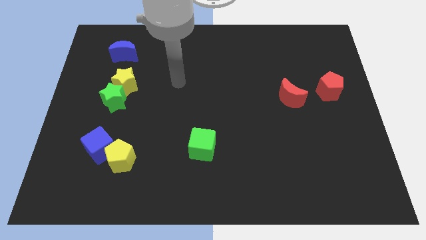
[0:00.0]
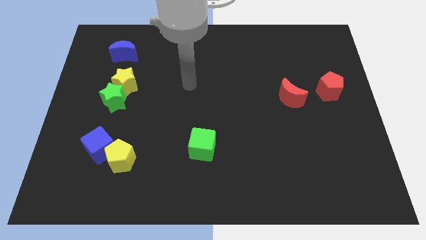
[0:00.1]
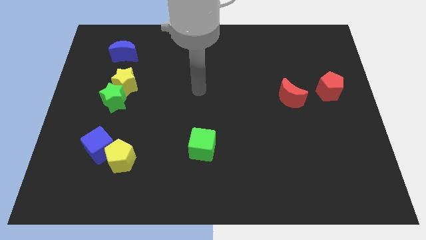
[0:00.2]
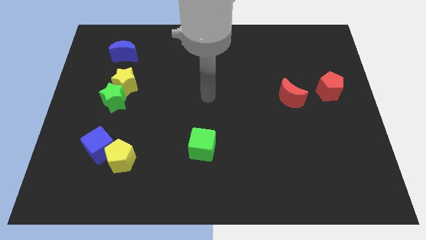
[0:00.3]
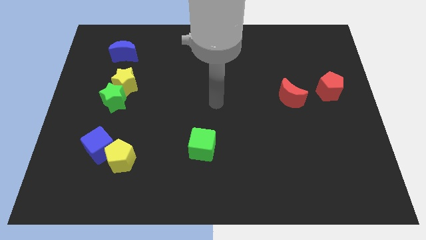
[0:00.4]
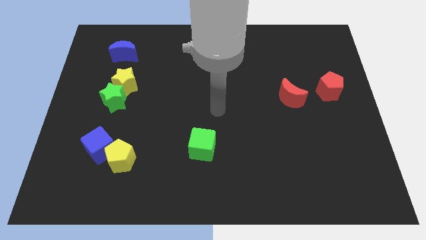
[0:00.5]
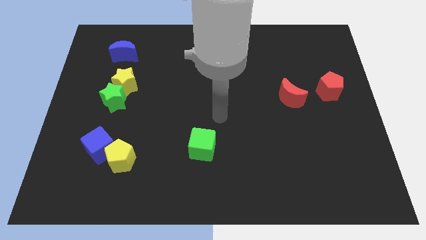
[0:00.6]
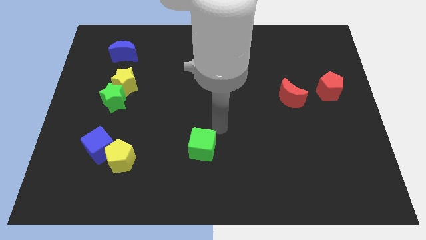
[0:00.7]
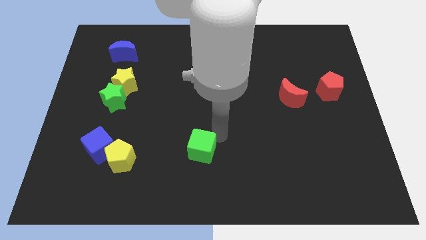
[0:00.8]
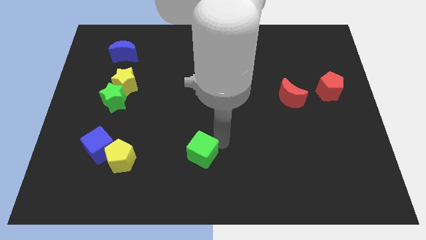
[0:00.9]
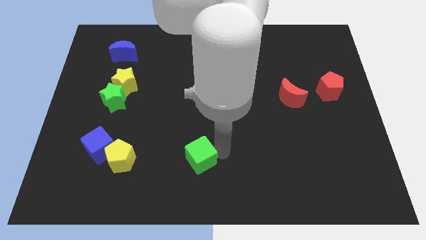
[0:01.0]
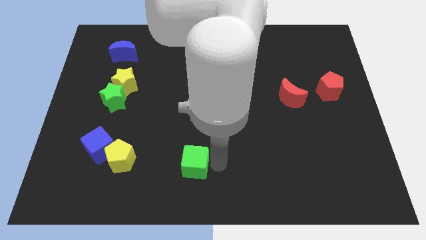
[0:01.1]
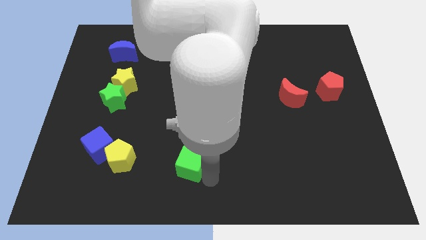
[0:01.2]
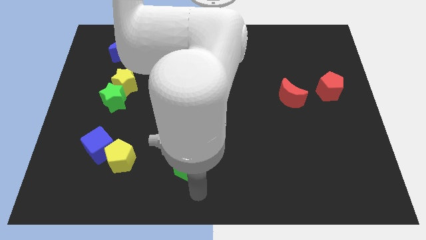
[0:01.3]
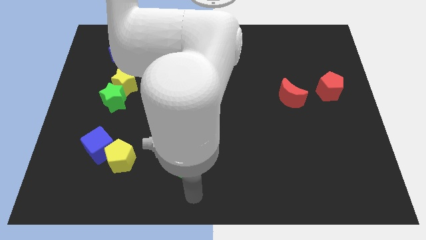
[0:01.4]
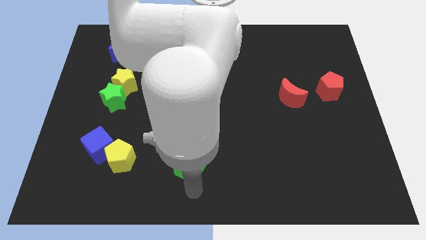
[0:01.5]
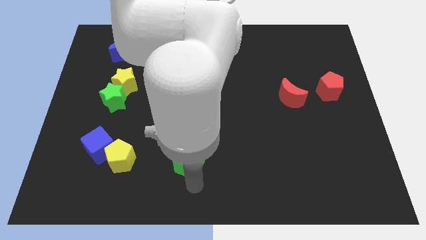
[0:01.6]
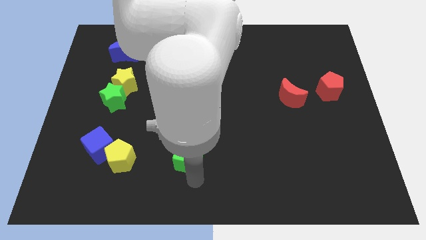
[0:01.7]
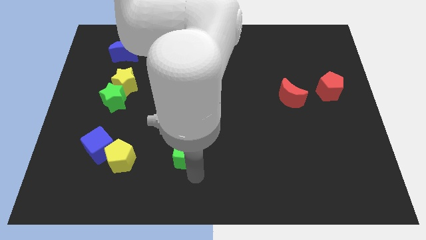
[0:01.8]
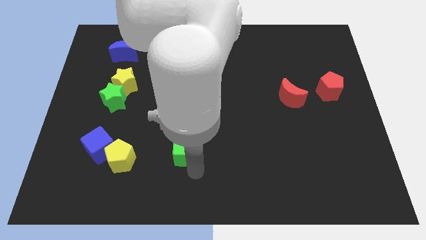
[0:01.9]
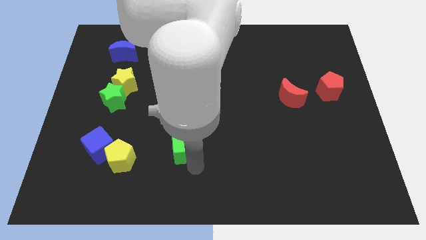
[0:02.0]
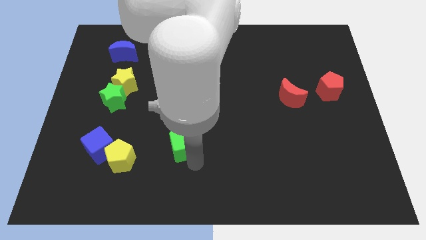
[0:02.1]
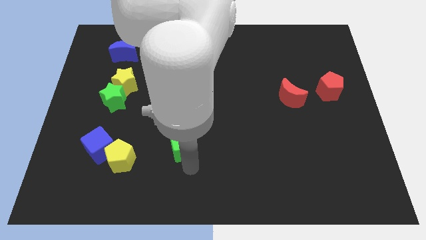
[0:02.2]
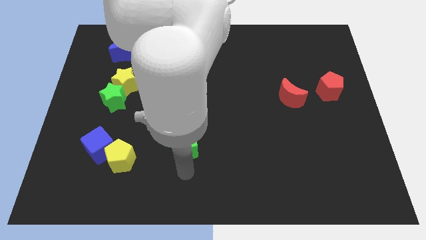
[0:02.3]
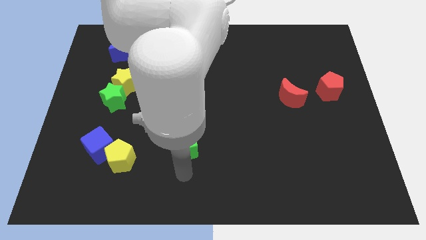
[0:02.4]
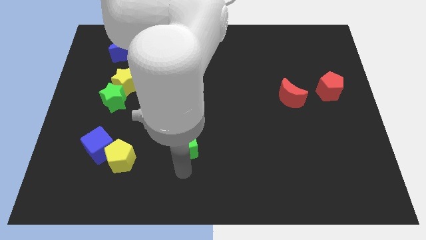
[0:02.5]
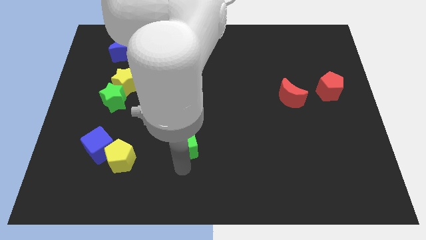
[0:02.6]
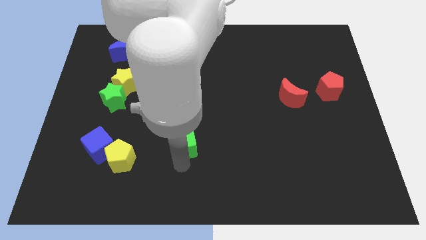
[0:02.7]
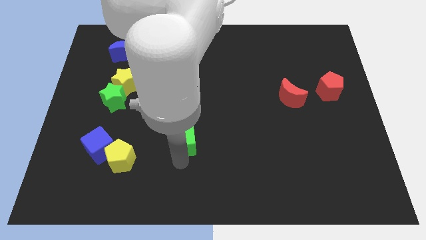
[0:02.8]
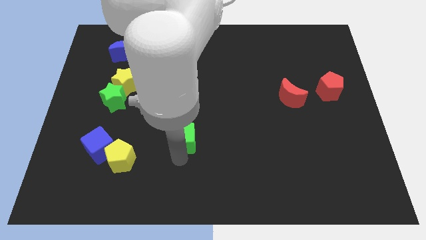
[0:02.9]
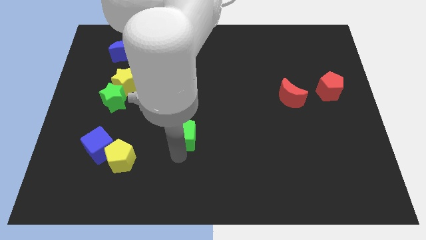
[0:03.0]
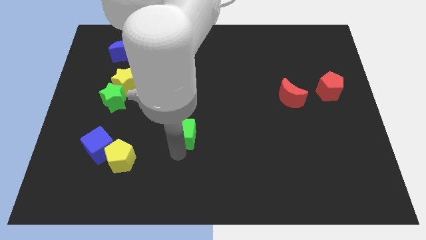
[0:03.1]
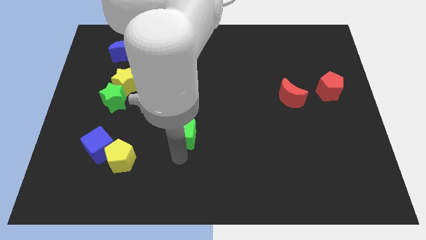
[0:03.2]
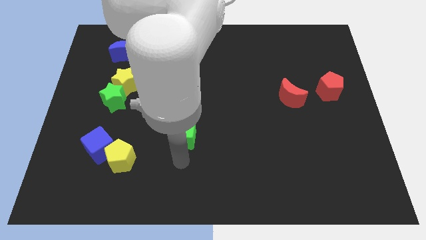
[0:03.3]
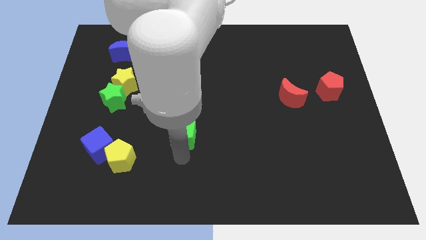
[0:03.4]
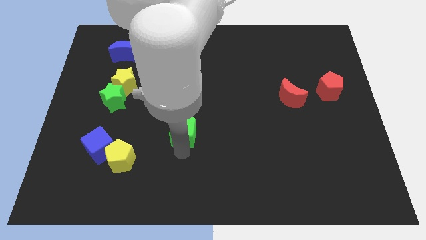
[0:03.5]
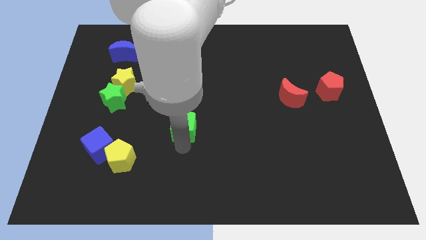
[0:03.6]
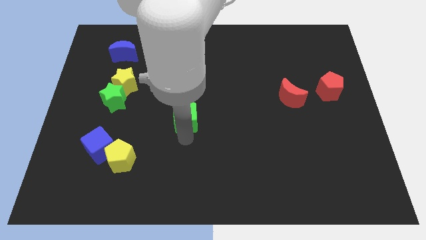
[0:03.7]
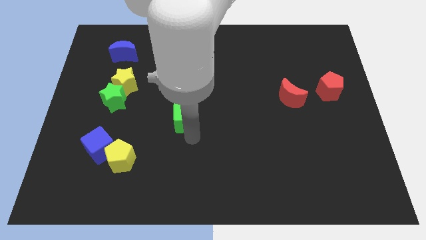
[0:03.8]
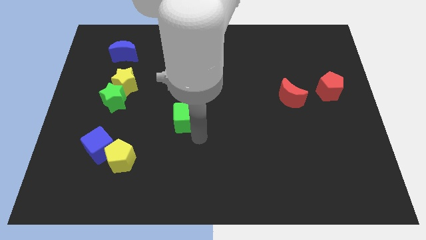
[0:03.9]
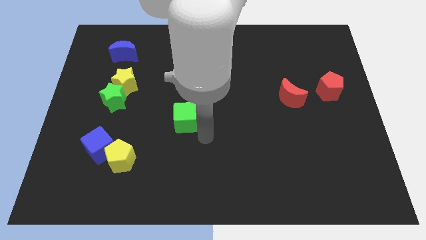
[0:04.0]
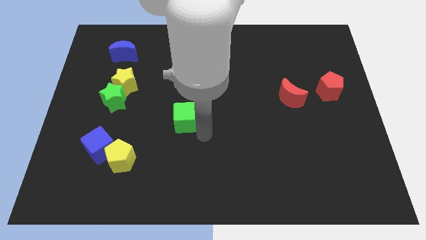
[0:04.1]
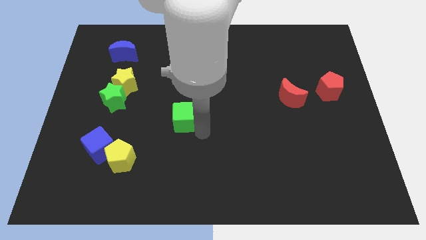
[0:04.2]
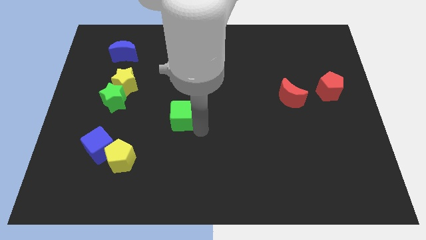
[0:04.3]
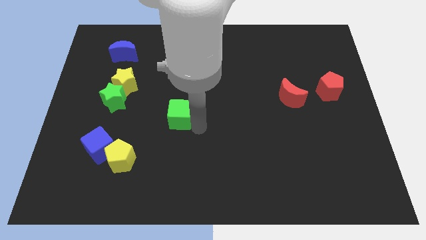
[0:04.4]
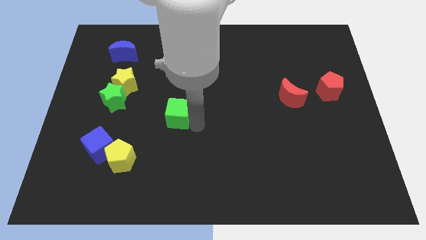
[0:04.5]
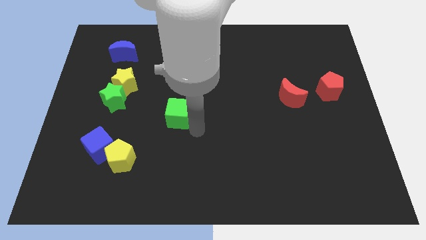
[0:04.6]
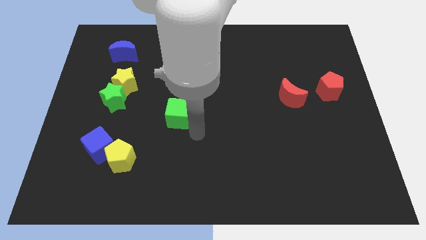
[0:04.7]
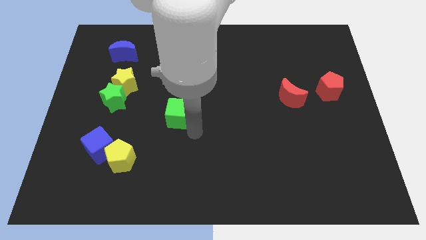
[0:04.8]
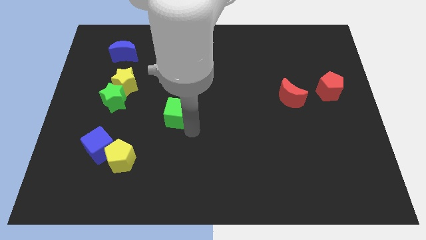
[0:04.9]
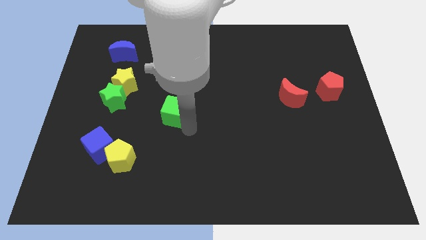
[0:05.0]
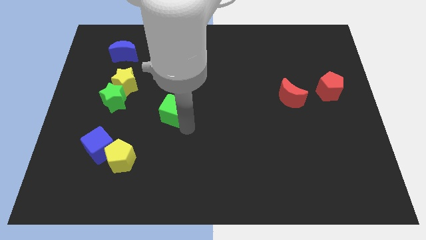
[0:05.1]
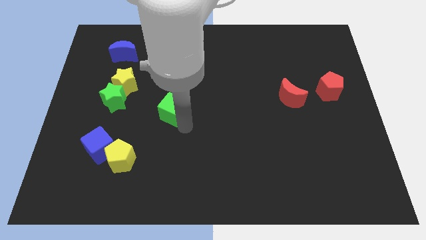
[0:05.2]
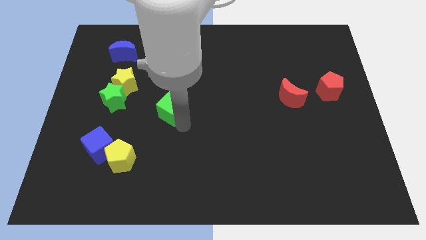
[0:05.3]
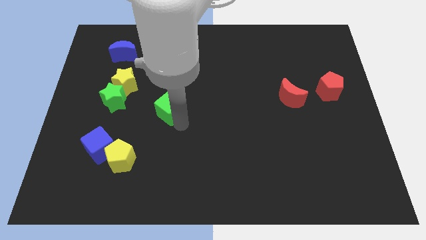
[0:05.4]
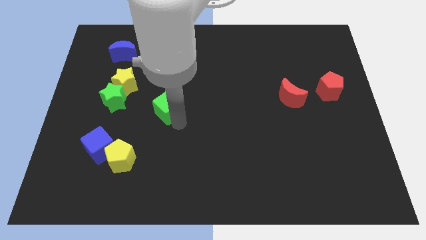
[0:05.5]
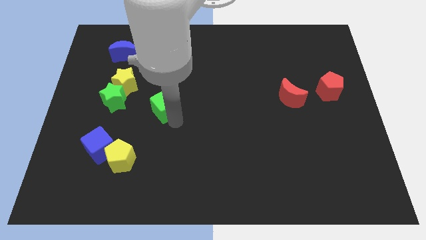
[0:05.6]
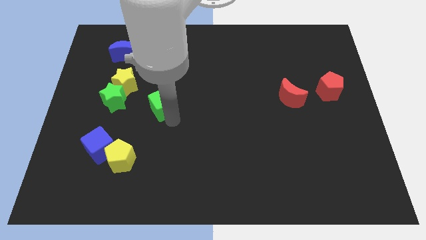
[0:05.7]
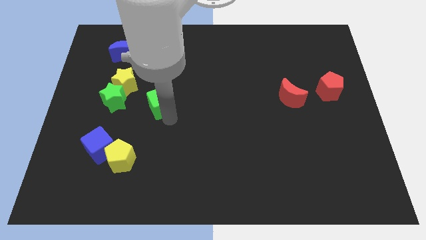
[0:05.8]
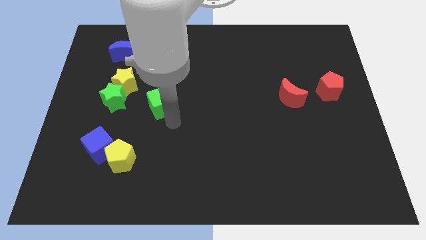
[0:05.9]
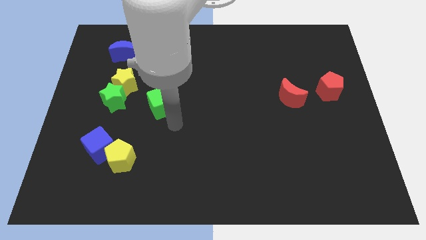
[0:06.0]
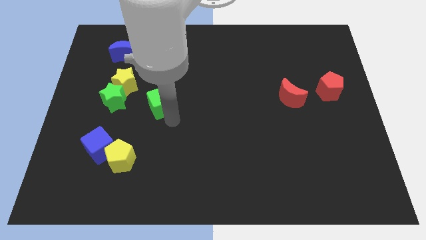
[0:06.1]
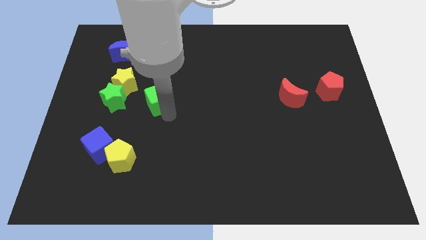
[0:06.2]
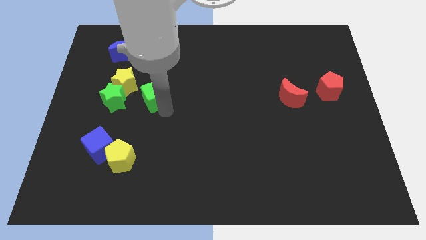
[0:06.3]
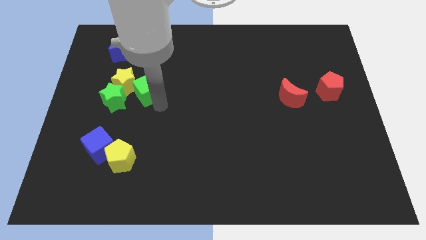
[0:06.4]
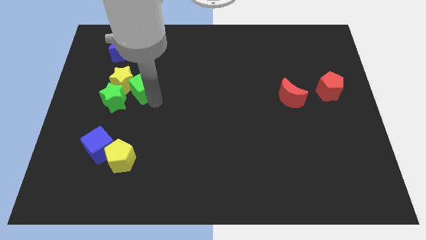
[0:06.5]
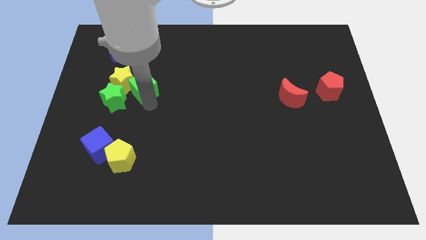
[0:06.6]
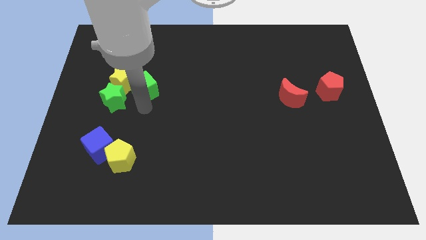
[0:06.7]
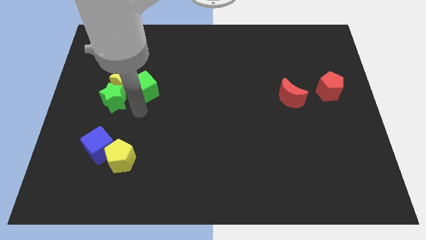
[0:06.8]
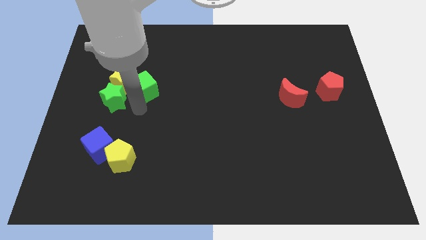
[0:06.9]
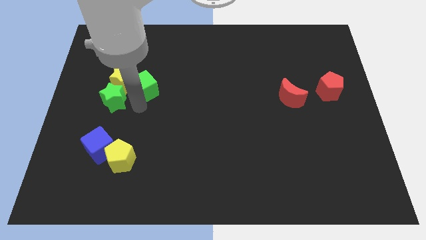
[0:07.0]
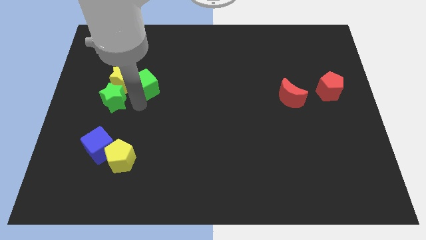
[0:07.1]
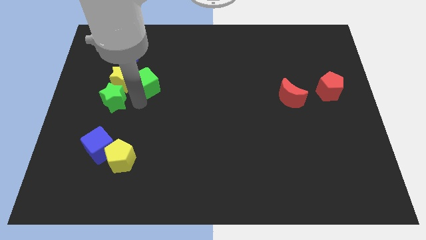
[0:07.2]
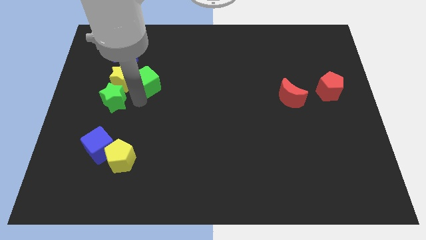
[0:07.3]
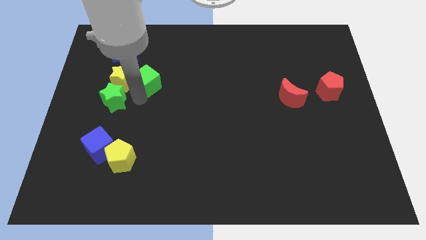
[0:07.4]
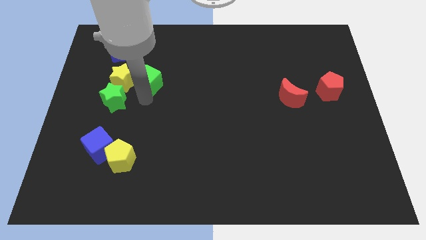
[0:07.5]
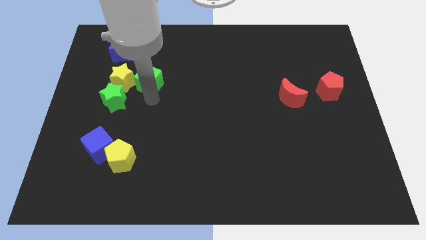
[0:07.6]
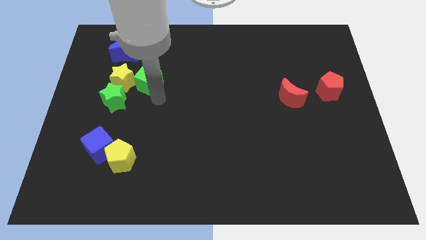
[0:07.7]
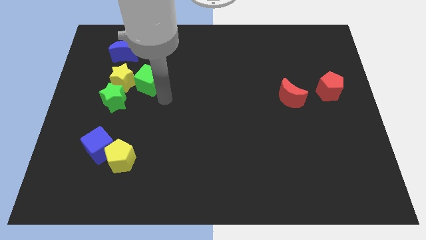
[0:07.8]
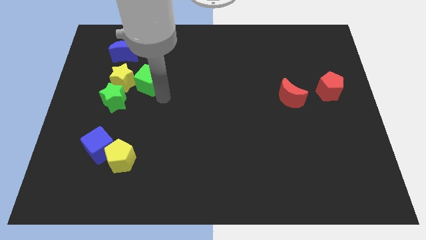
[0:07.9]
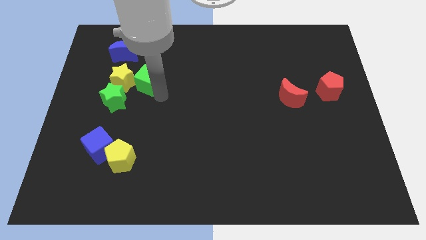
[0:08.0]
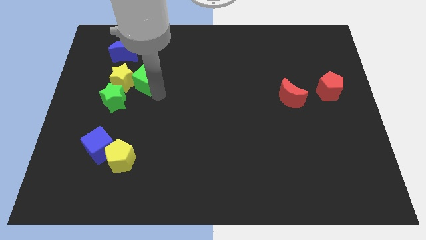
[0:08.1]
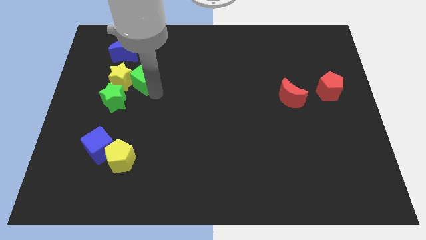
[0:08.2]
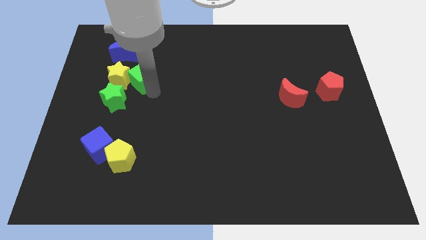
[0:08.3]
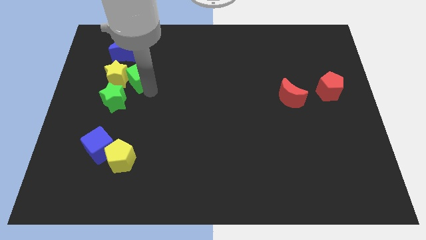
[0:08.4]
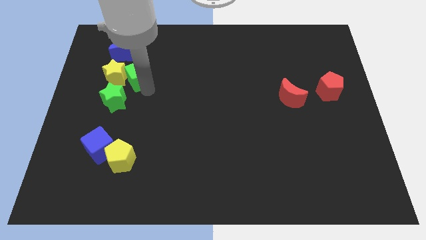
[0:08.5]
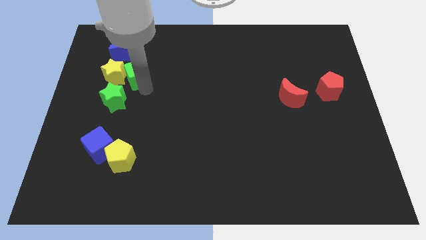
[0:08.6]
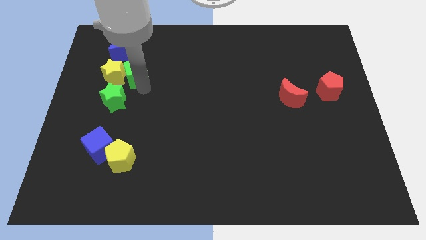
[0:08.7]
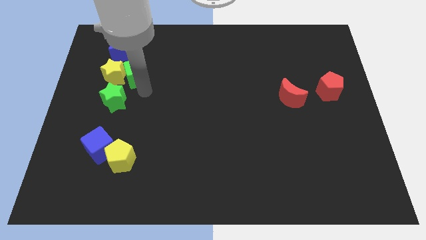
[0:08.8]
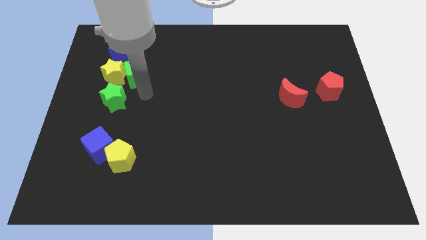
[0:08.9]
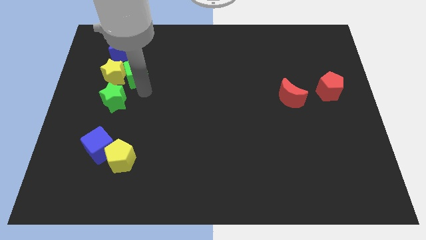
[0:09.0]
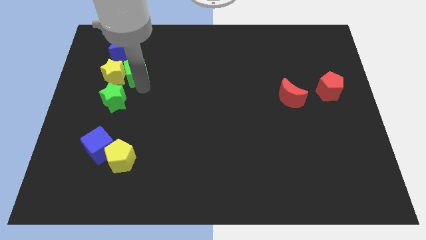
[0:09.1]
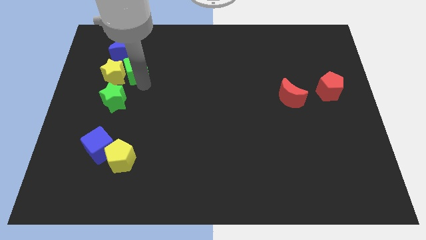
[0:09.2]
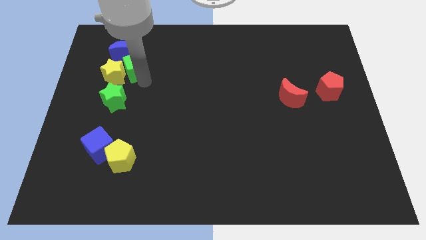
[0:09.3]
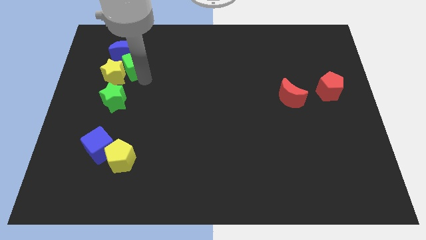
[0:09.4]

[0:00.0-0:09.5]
move the green cube close to the blue moon
